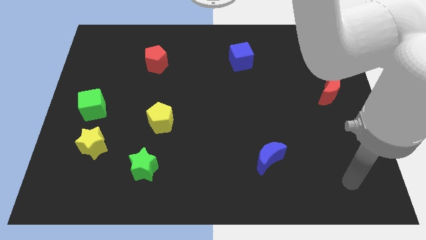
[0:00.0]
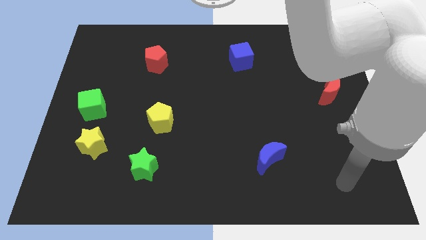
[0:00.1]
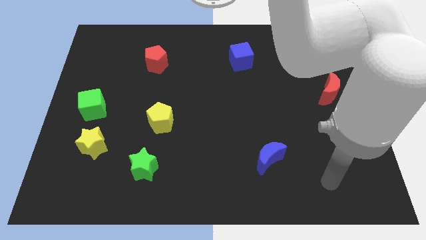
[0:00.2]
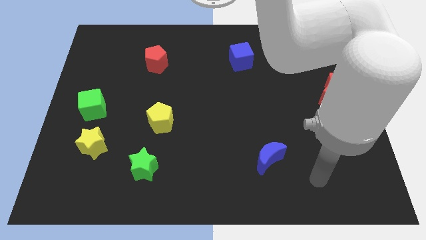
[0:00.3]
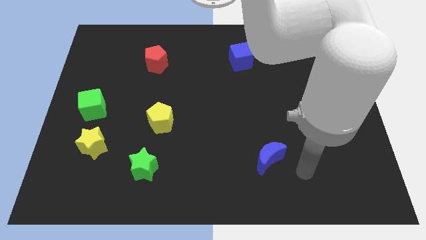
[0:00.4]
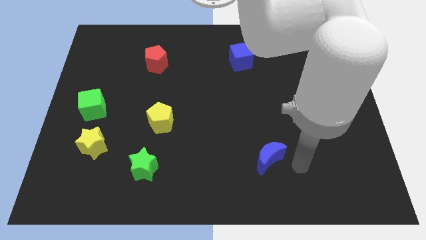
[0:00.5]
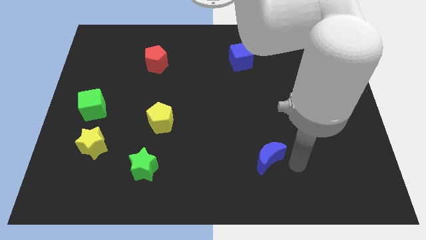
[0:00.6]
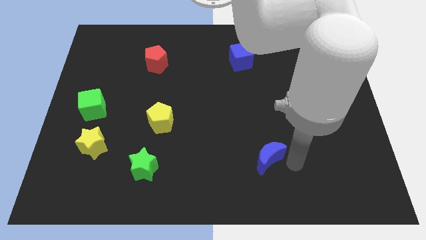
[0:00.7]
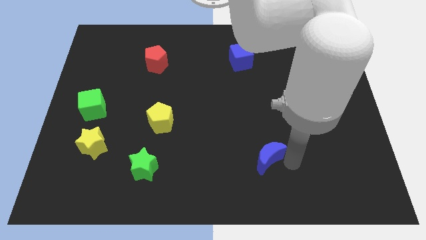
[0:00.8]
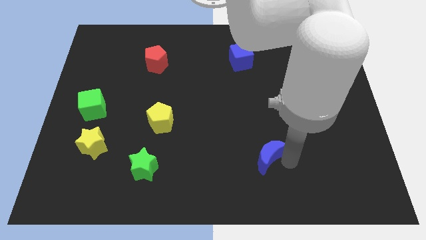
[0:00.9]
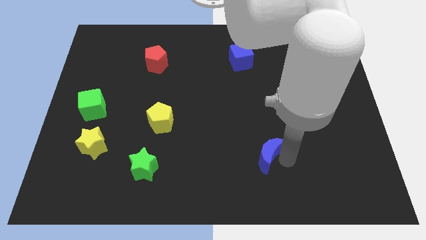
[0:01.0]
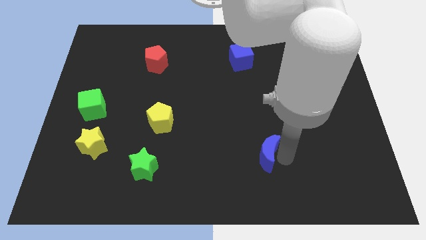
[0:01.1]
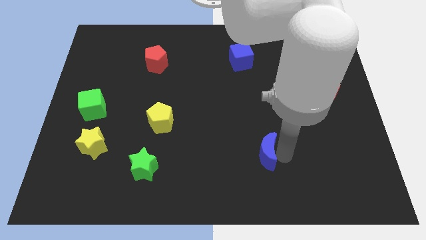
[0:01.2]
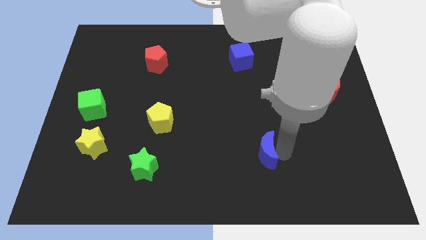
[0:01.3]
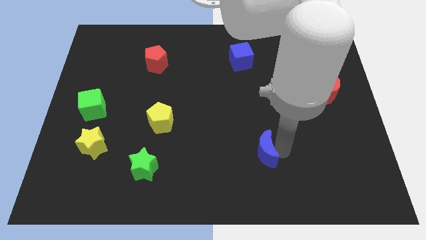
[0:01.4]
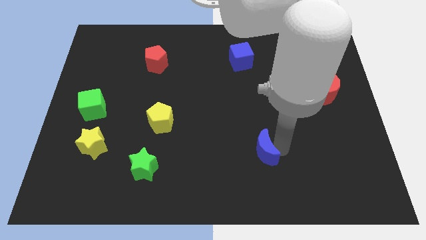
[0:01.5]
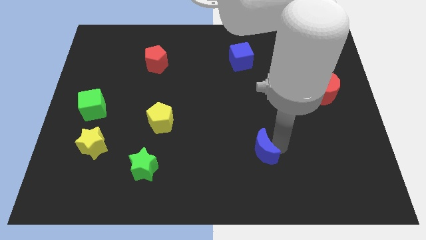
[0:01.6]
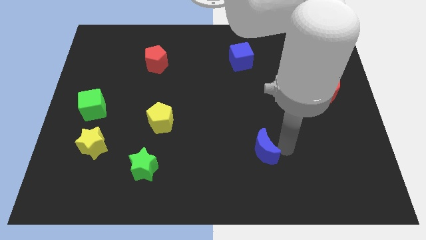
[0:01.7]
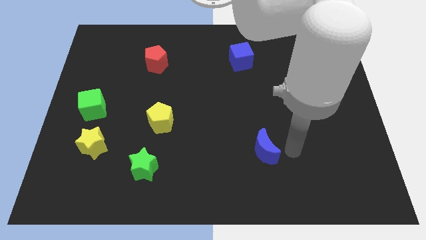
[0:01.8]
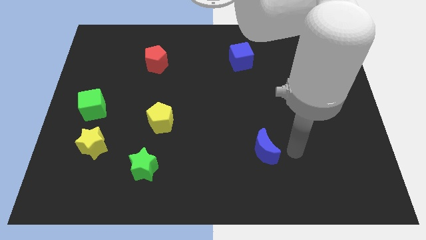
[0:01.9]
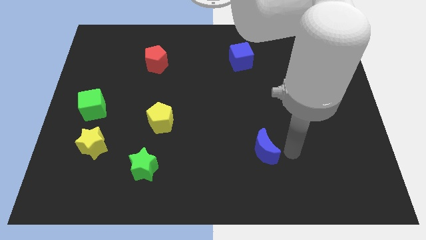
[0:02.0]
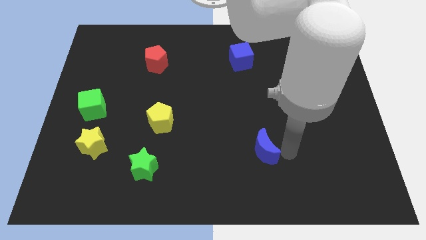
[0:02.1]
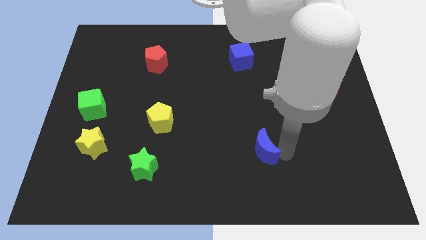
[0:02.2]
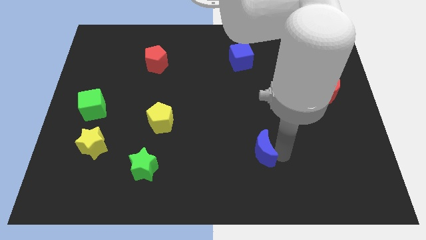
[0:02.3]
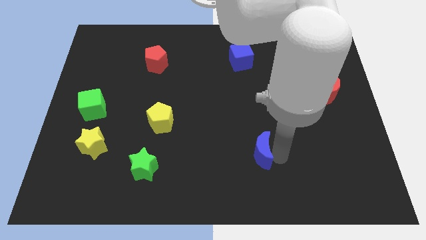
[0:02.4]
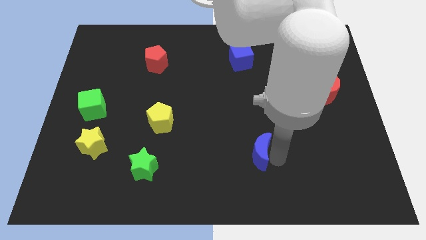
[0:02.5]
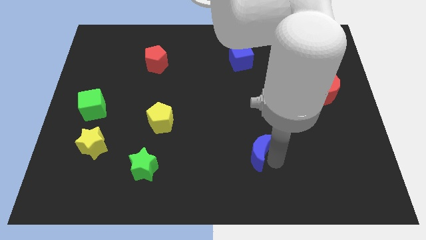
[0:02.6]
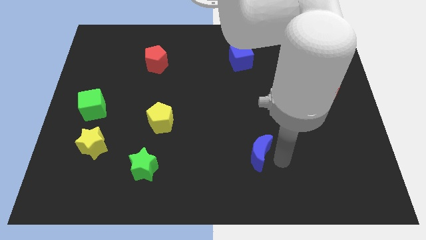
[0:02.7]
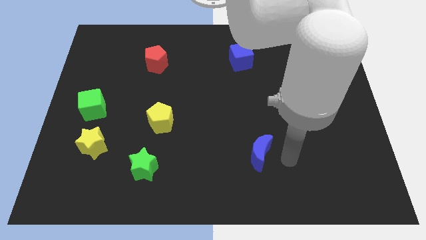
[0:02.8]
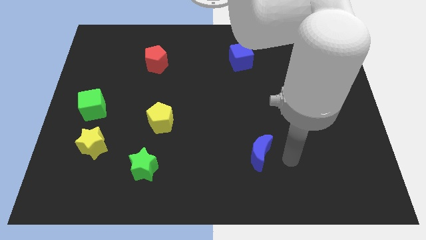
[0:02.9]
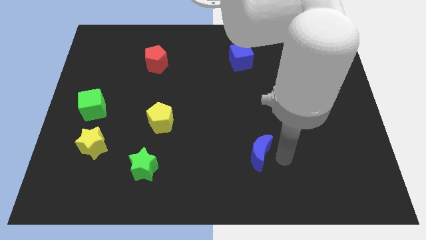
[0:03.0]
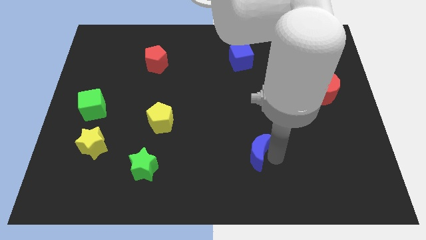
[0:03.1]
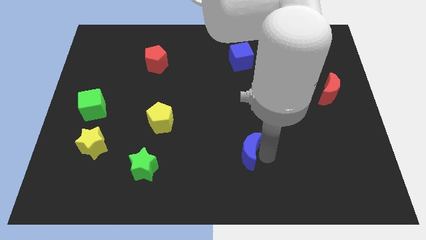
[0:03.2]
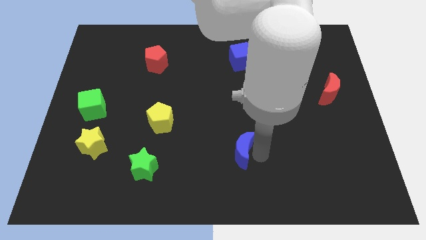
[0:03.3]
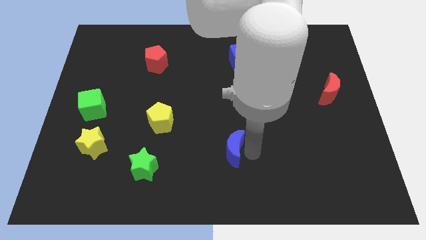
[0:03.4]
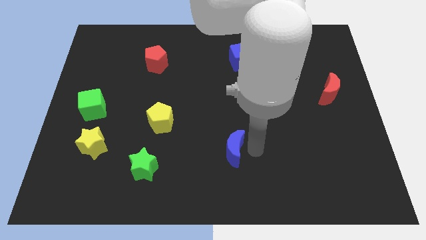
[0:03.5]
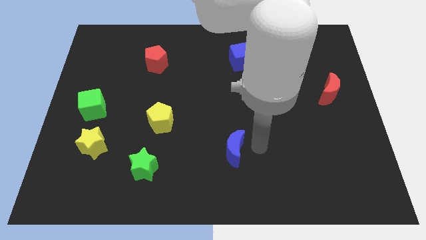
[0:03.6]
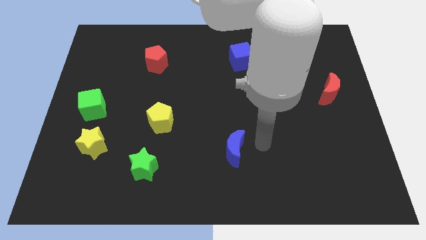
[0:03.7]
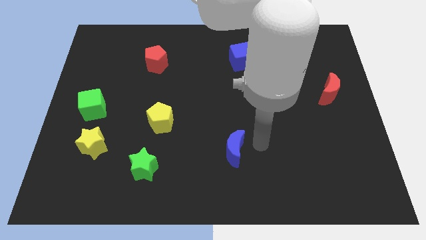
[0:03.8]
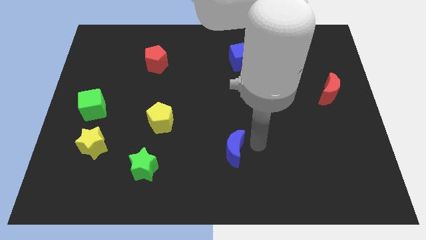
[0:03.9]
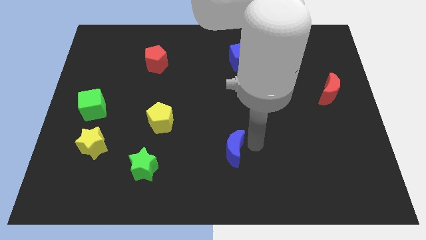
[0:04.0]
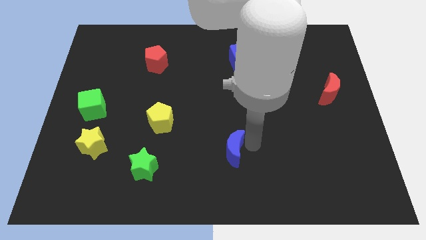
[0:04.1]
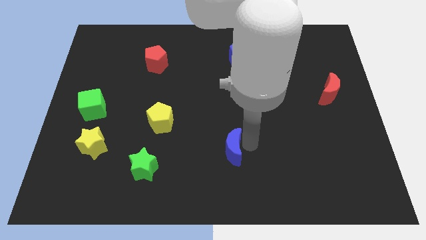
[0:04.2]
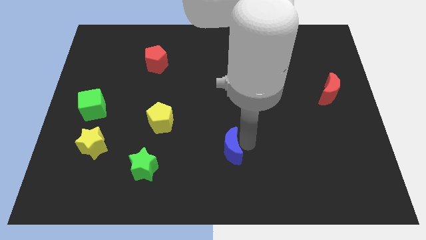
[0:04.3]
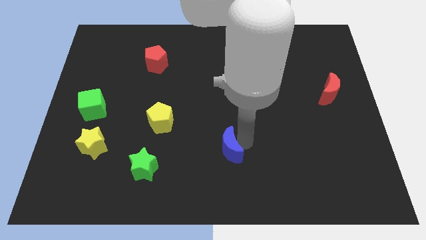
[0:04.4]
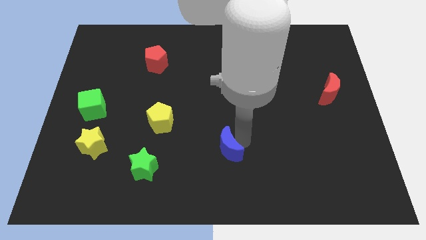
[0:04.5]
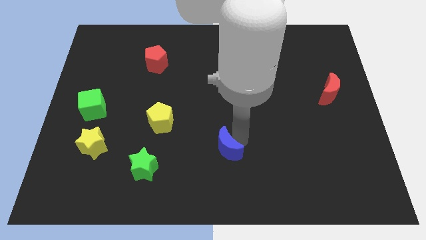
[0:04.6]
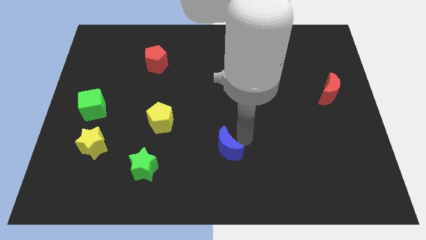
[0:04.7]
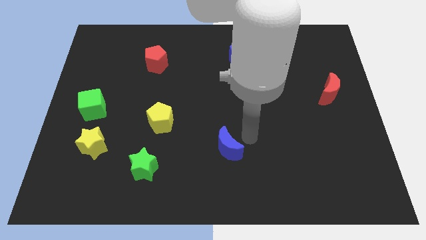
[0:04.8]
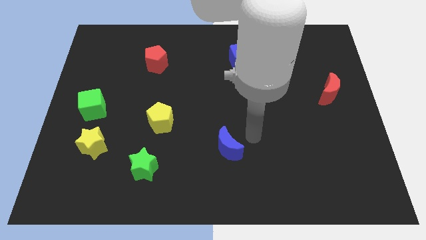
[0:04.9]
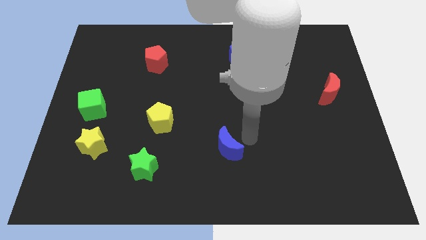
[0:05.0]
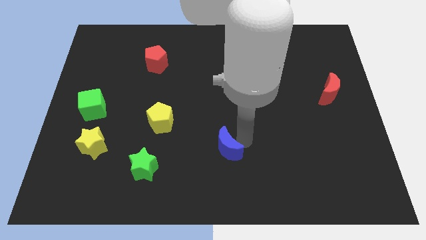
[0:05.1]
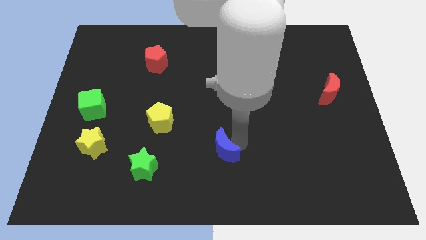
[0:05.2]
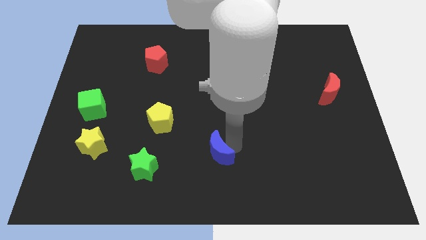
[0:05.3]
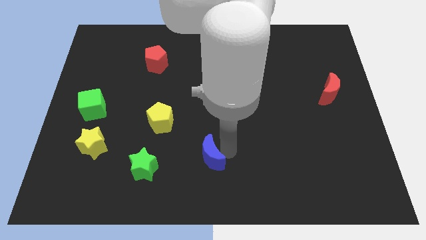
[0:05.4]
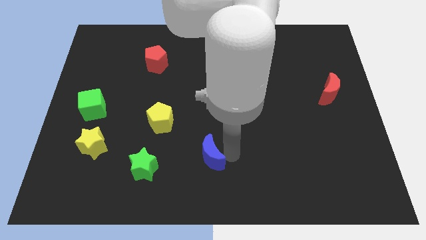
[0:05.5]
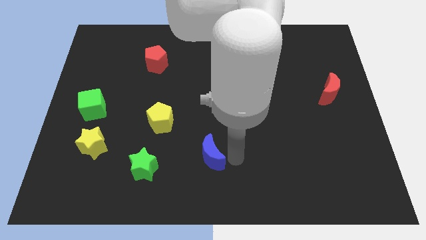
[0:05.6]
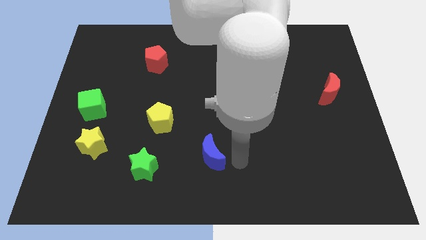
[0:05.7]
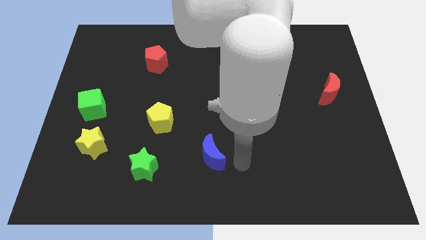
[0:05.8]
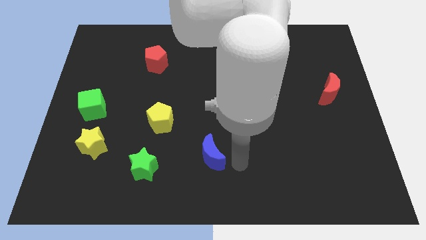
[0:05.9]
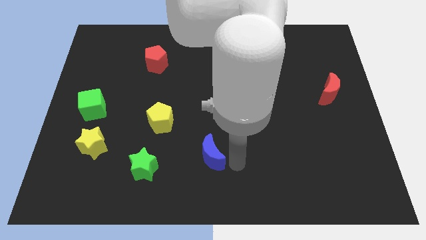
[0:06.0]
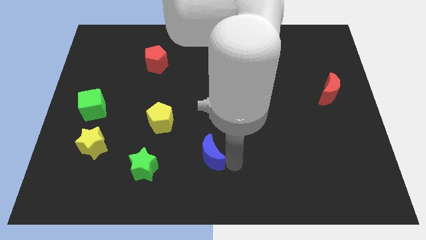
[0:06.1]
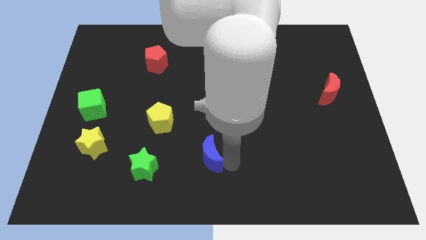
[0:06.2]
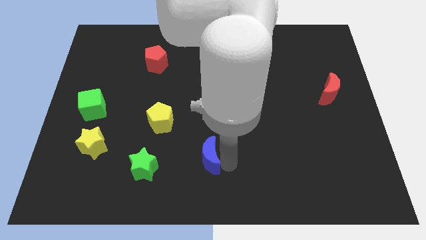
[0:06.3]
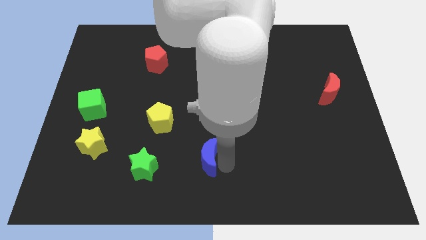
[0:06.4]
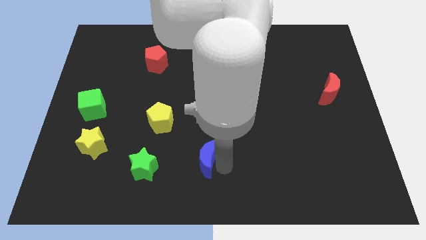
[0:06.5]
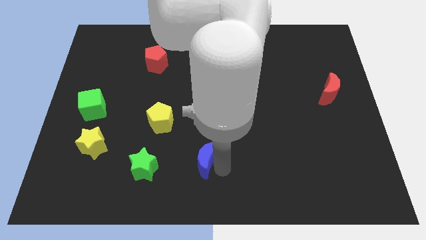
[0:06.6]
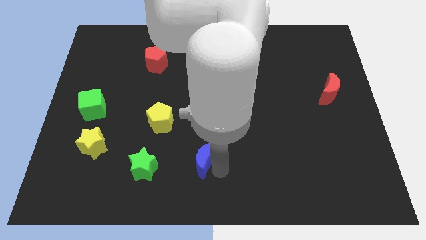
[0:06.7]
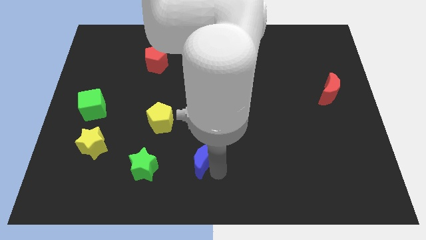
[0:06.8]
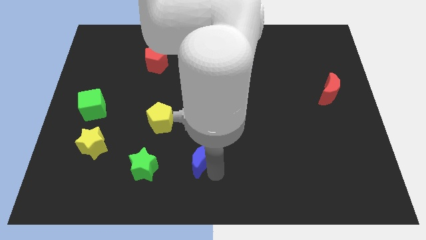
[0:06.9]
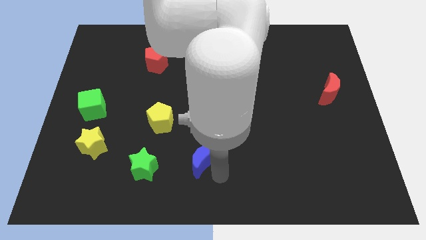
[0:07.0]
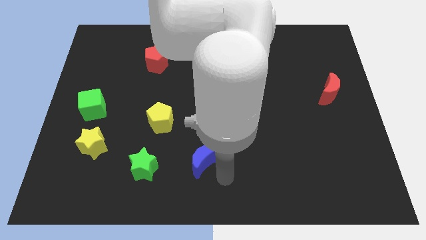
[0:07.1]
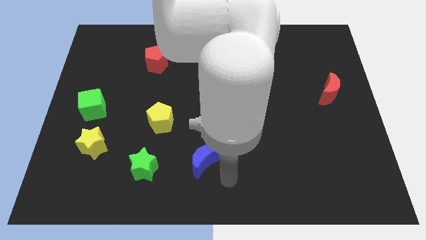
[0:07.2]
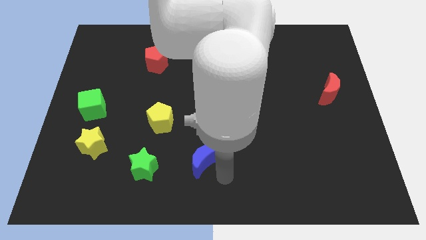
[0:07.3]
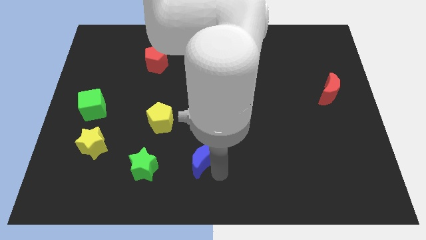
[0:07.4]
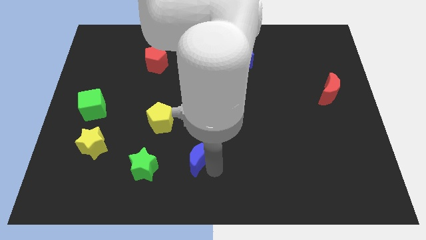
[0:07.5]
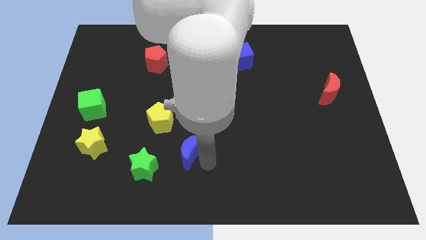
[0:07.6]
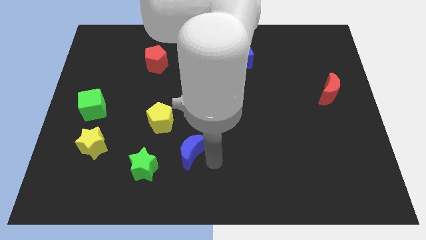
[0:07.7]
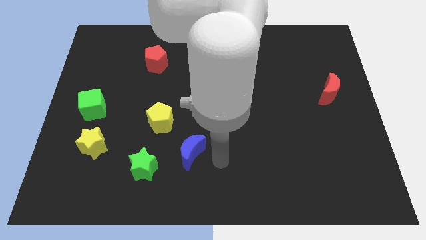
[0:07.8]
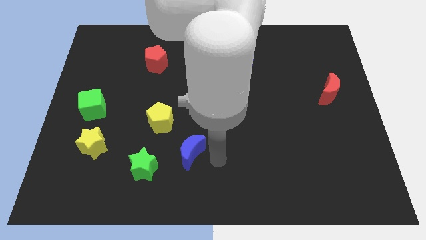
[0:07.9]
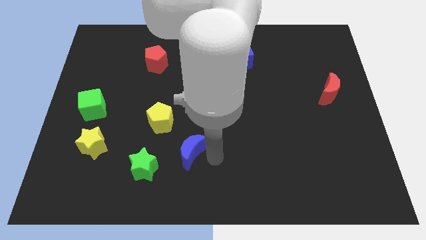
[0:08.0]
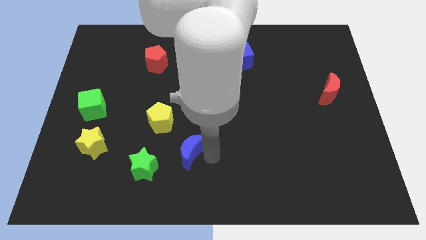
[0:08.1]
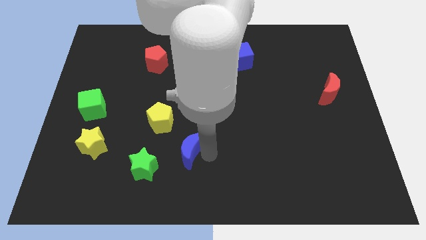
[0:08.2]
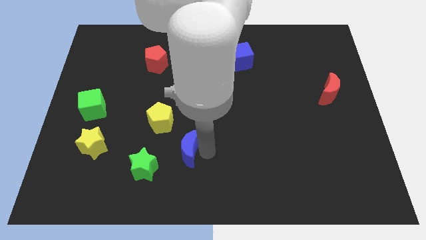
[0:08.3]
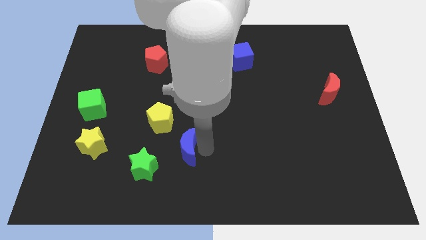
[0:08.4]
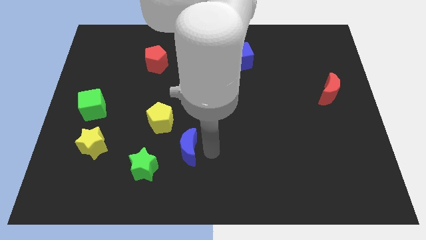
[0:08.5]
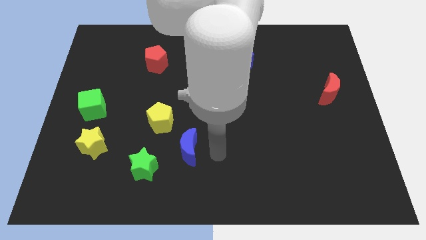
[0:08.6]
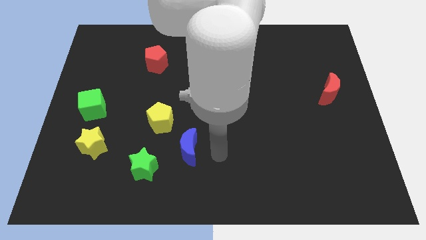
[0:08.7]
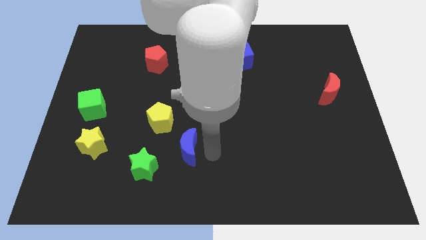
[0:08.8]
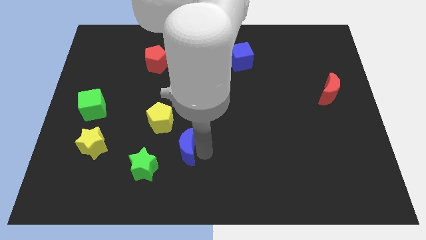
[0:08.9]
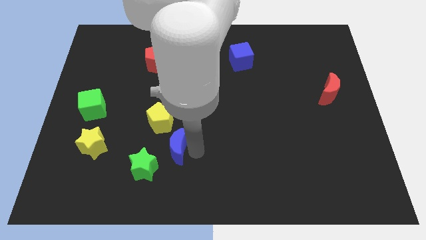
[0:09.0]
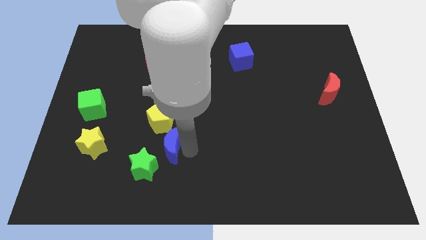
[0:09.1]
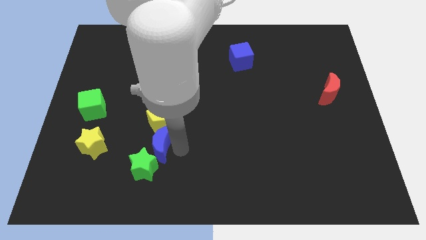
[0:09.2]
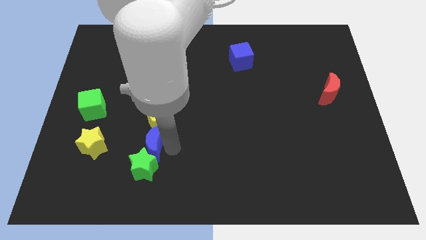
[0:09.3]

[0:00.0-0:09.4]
put the blue moon to the bottom left of the yellow pentagon
